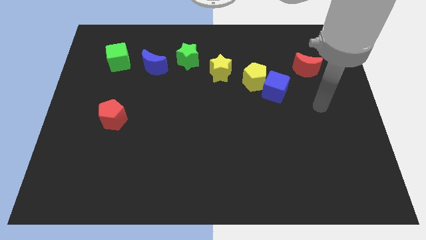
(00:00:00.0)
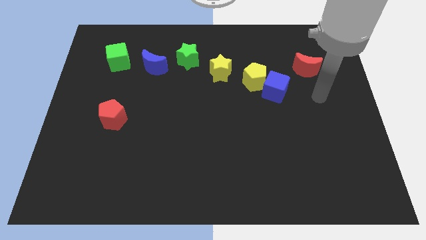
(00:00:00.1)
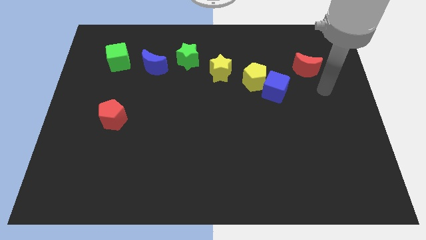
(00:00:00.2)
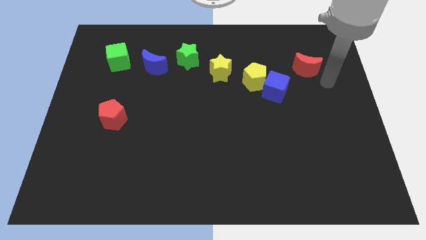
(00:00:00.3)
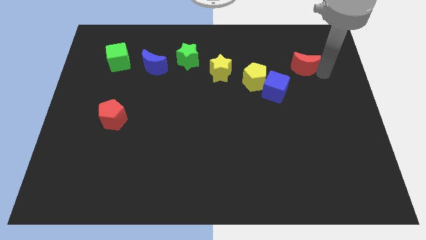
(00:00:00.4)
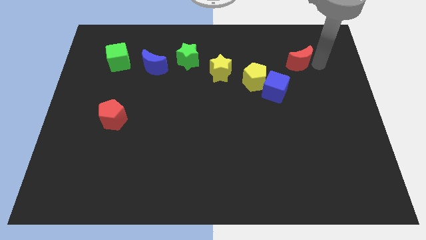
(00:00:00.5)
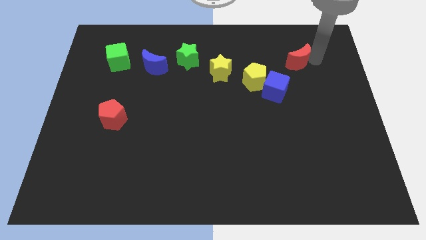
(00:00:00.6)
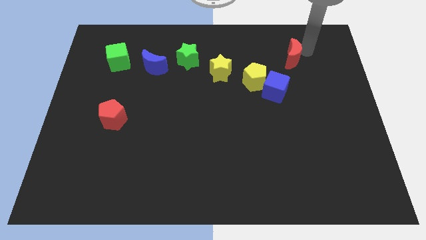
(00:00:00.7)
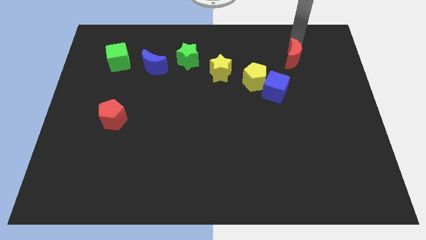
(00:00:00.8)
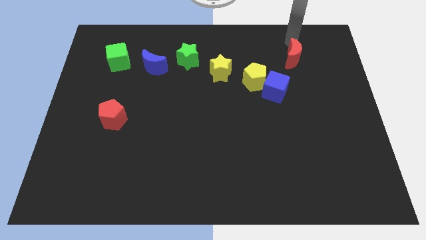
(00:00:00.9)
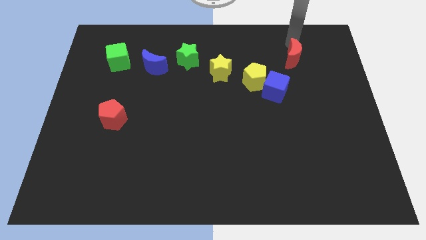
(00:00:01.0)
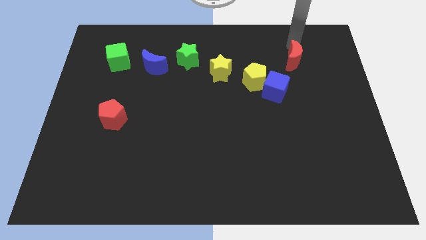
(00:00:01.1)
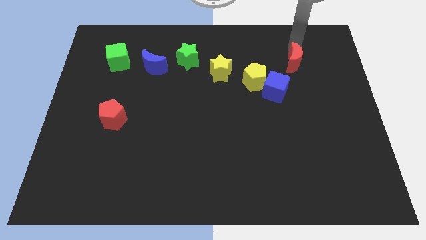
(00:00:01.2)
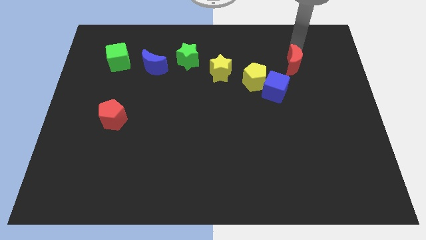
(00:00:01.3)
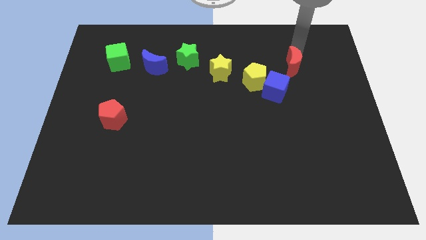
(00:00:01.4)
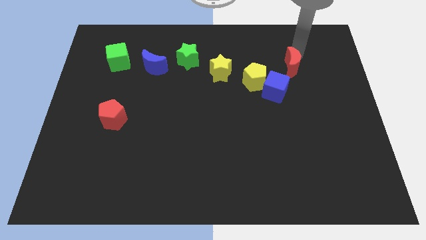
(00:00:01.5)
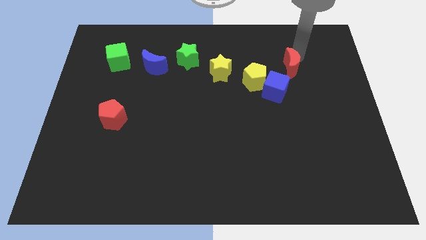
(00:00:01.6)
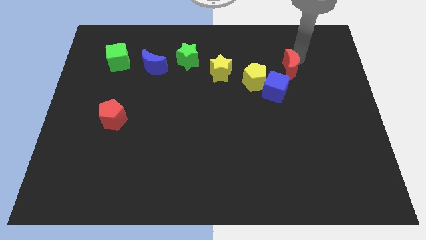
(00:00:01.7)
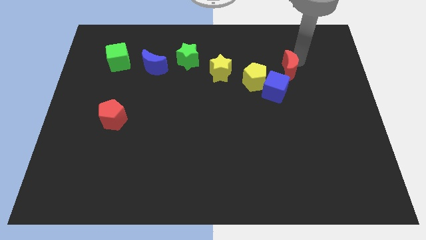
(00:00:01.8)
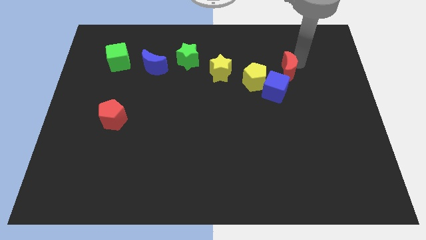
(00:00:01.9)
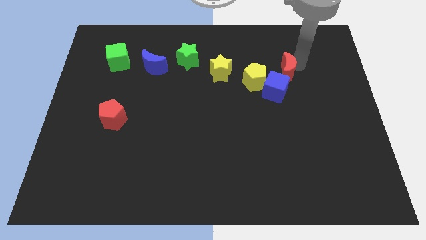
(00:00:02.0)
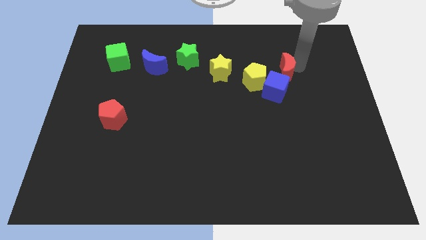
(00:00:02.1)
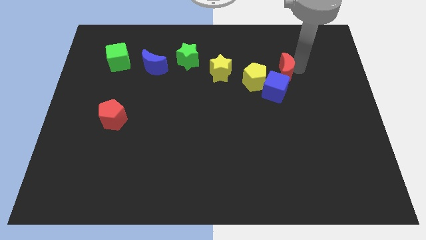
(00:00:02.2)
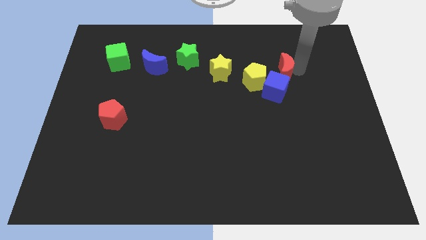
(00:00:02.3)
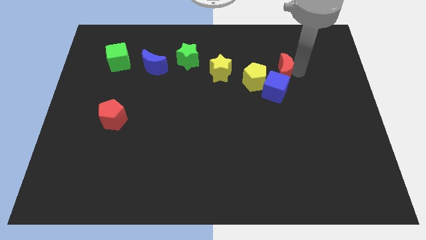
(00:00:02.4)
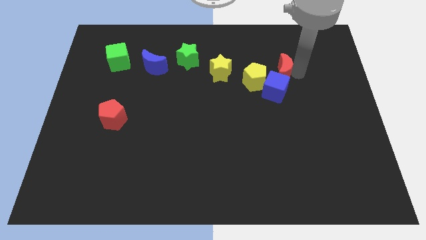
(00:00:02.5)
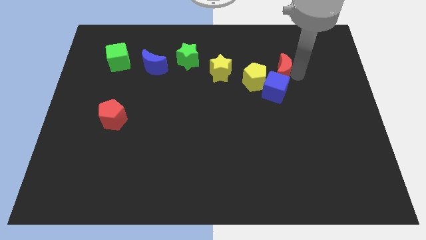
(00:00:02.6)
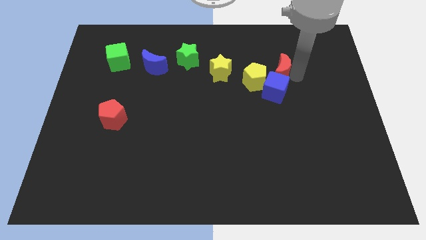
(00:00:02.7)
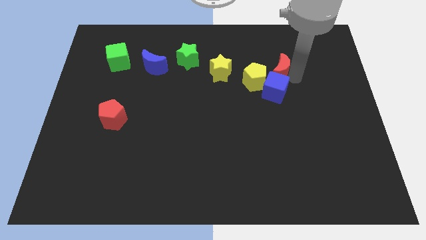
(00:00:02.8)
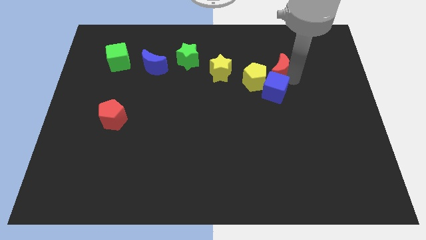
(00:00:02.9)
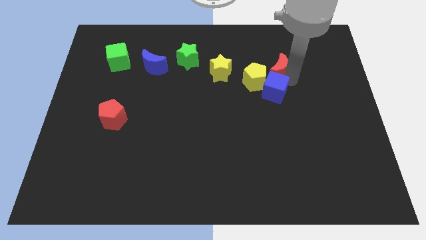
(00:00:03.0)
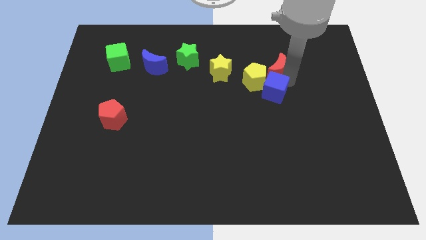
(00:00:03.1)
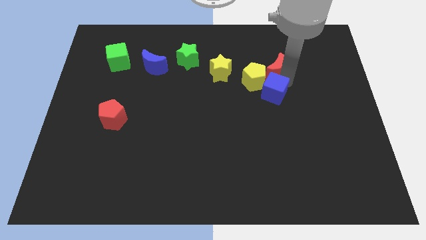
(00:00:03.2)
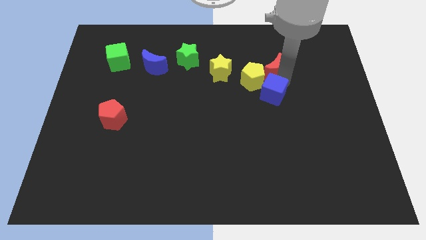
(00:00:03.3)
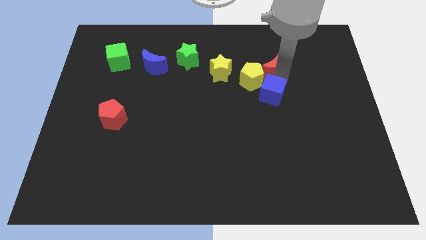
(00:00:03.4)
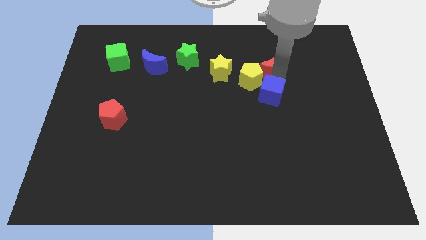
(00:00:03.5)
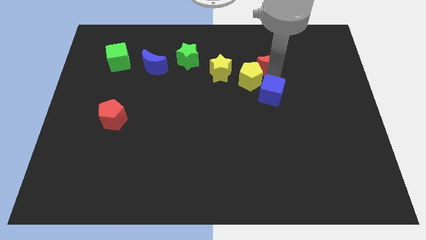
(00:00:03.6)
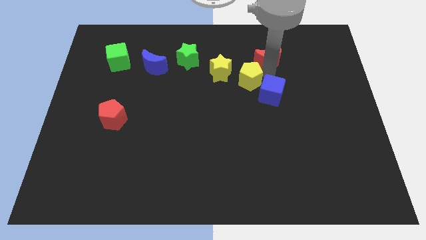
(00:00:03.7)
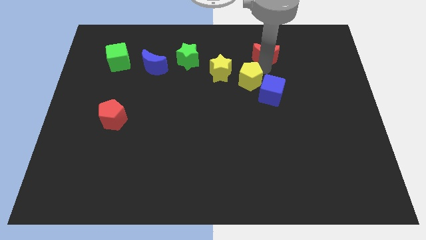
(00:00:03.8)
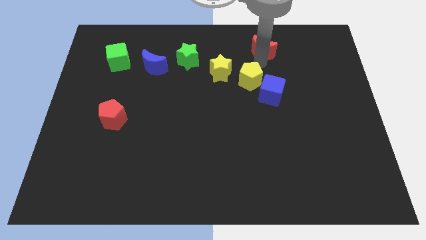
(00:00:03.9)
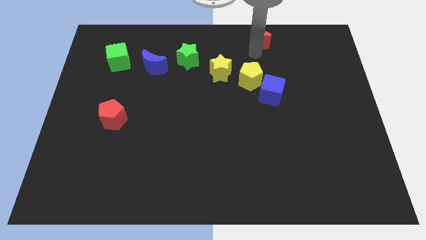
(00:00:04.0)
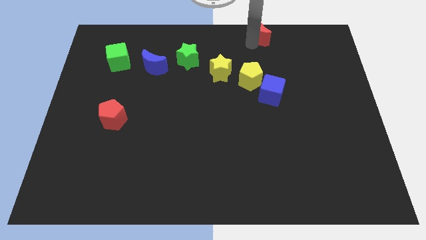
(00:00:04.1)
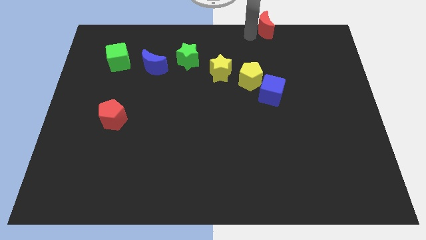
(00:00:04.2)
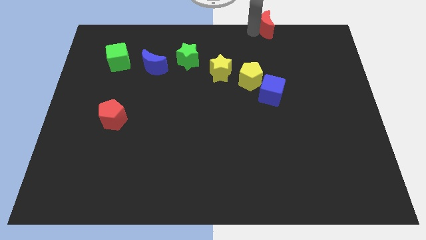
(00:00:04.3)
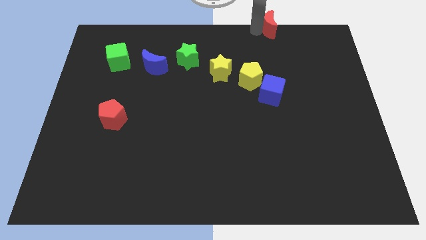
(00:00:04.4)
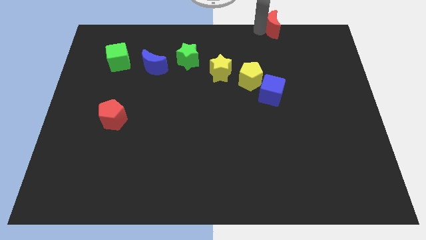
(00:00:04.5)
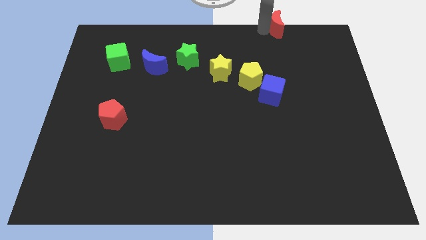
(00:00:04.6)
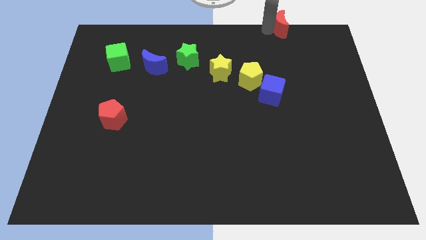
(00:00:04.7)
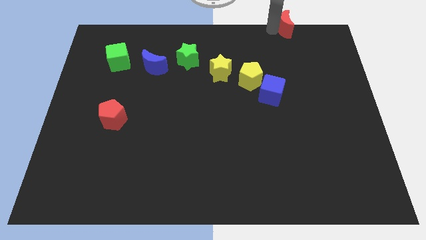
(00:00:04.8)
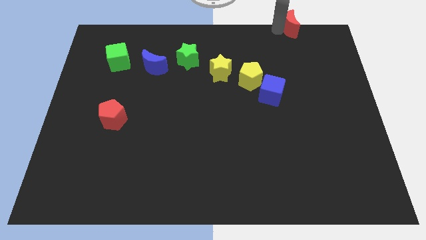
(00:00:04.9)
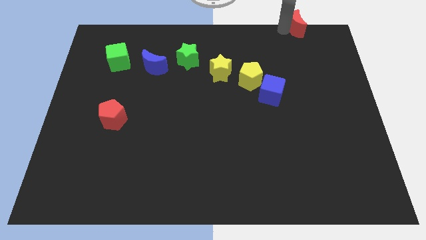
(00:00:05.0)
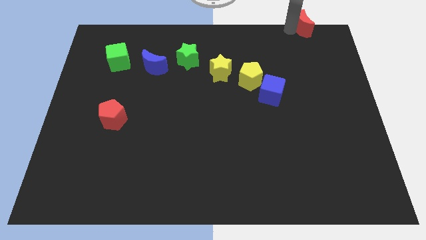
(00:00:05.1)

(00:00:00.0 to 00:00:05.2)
push the red moon to the top right corner
